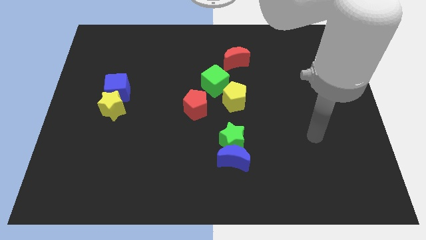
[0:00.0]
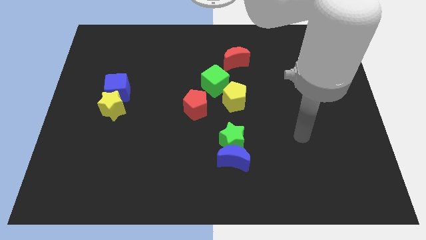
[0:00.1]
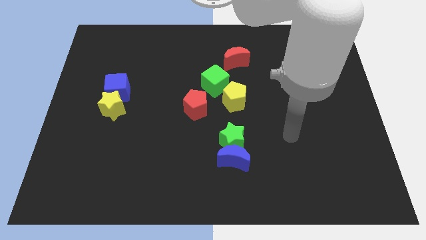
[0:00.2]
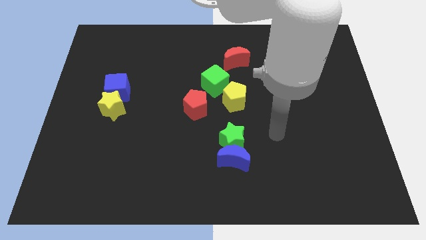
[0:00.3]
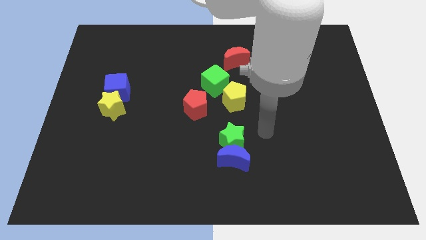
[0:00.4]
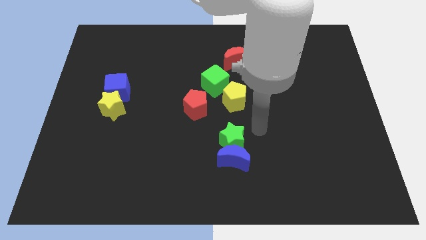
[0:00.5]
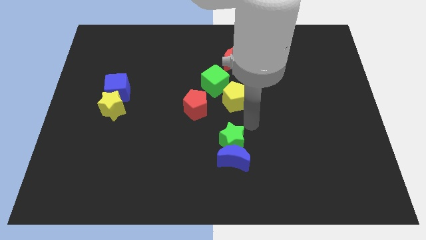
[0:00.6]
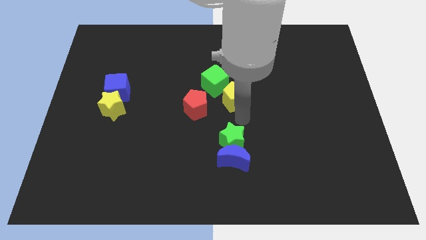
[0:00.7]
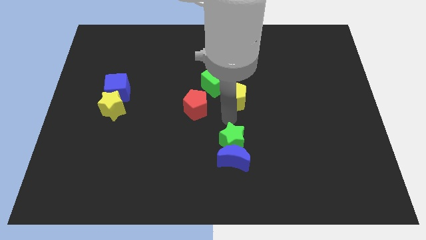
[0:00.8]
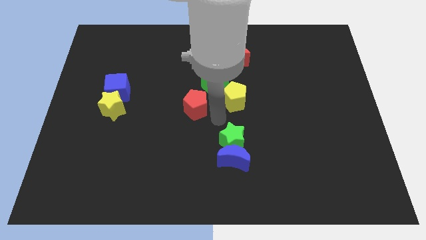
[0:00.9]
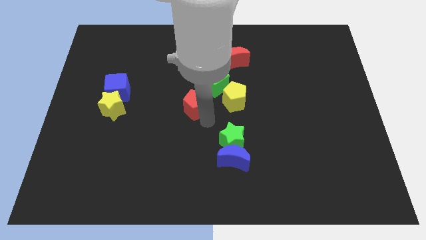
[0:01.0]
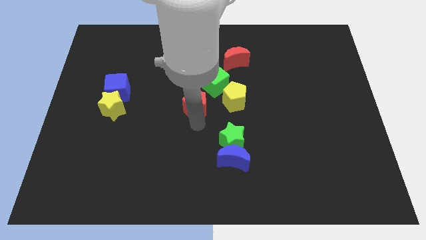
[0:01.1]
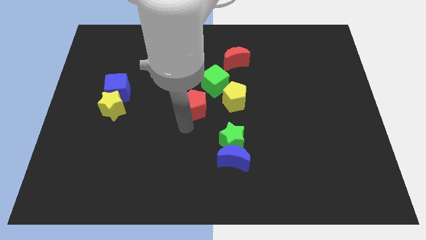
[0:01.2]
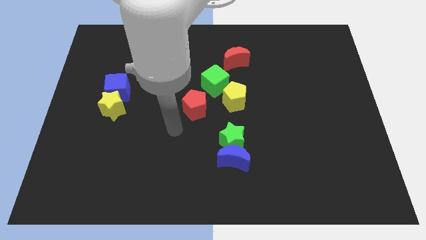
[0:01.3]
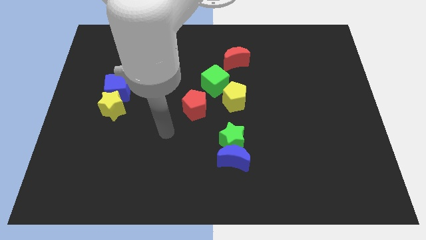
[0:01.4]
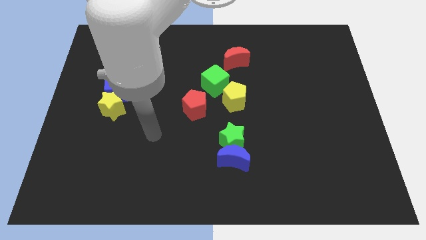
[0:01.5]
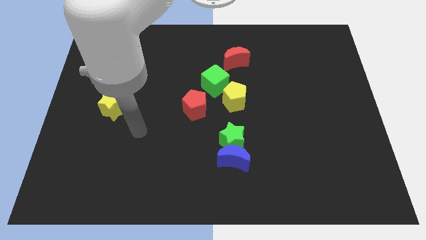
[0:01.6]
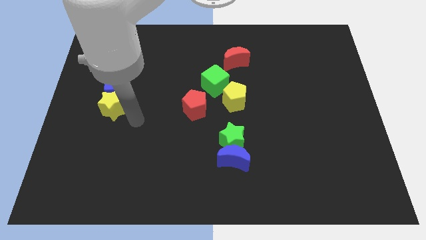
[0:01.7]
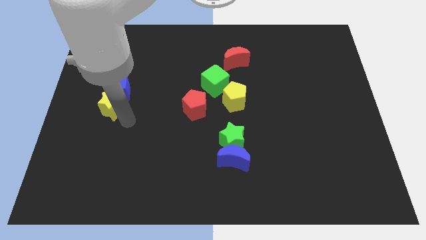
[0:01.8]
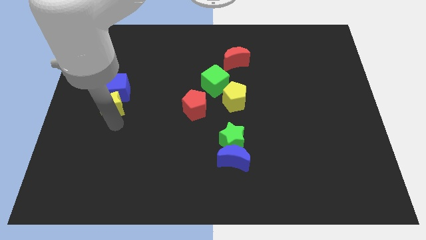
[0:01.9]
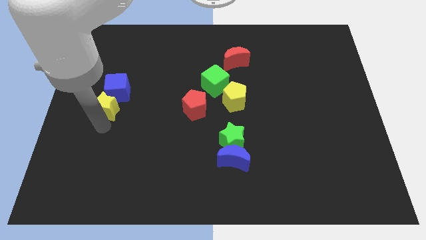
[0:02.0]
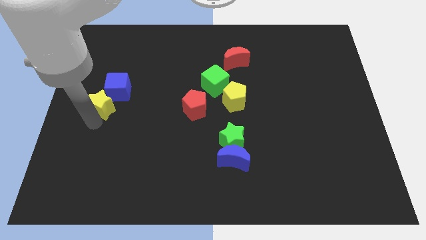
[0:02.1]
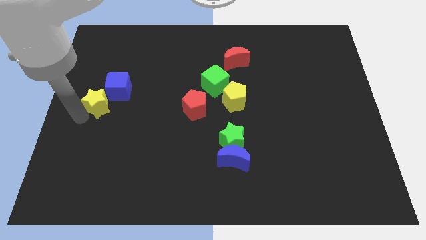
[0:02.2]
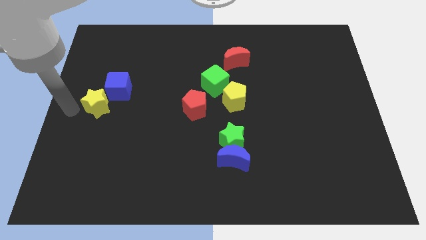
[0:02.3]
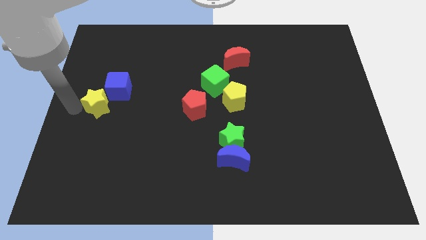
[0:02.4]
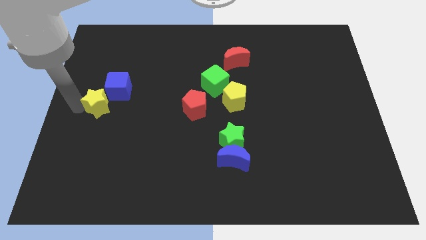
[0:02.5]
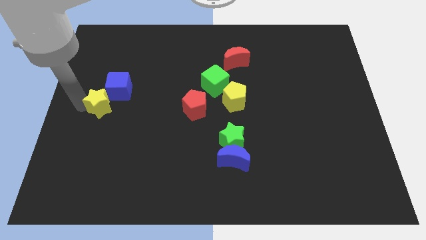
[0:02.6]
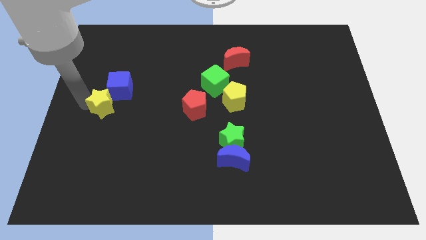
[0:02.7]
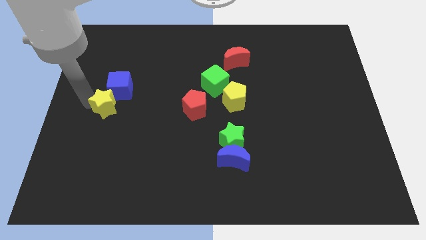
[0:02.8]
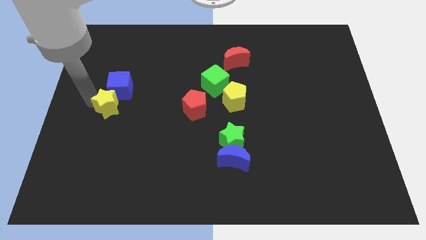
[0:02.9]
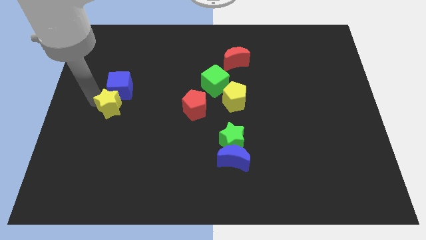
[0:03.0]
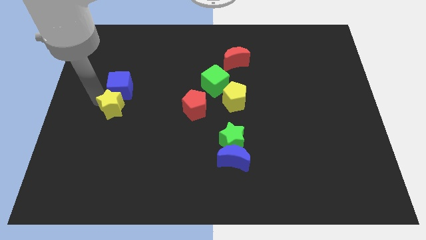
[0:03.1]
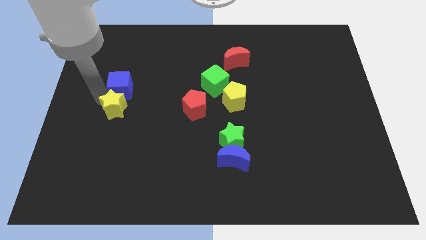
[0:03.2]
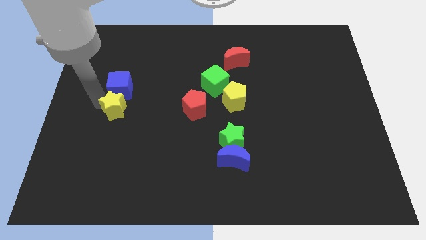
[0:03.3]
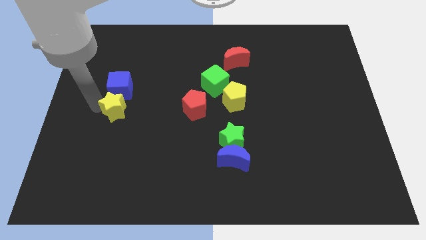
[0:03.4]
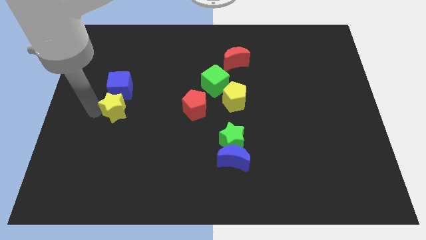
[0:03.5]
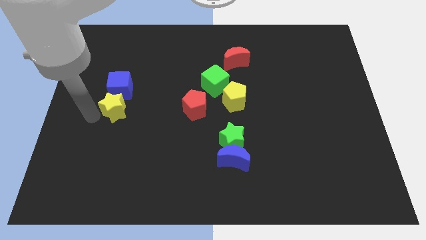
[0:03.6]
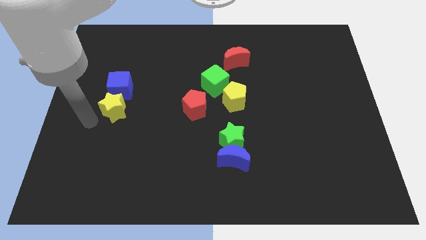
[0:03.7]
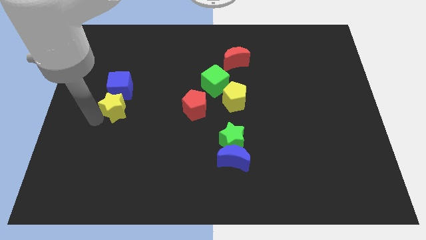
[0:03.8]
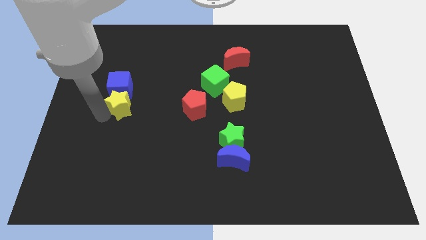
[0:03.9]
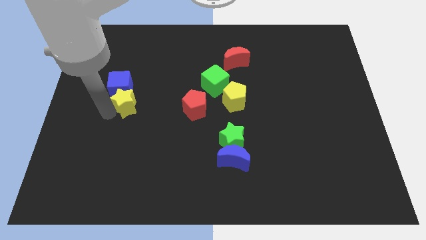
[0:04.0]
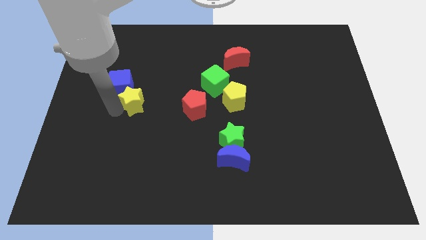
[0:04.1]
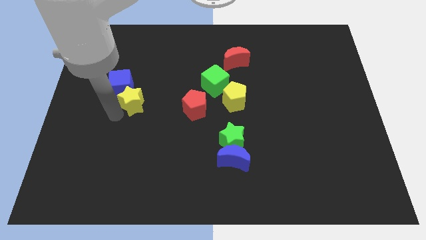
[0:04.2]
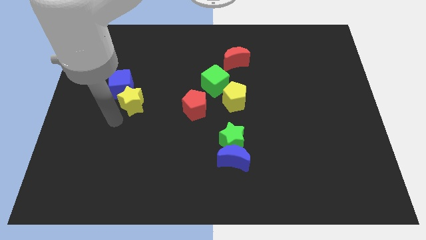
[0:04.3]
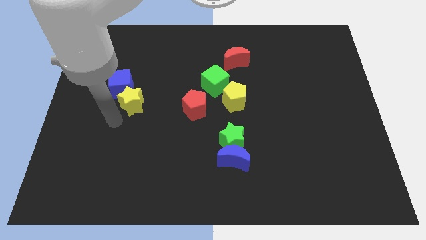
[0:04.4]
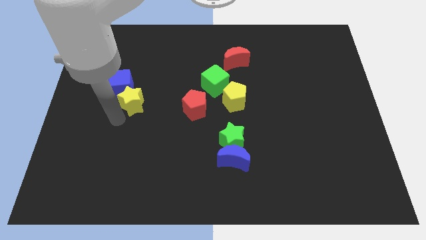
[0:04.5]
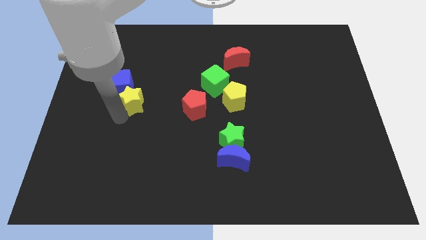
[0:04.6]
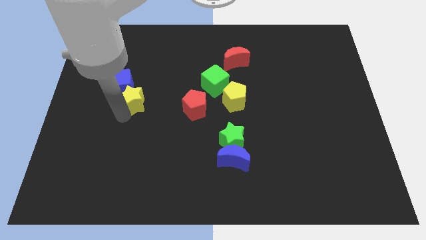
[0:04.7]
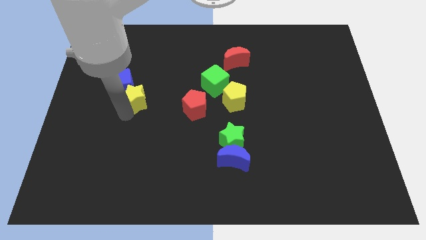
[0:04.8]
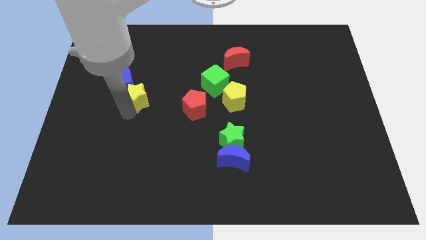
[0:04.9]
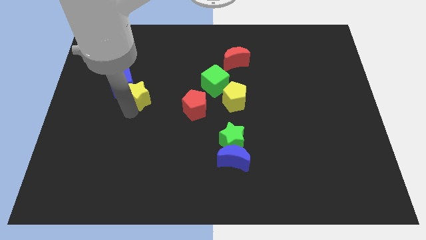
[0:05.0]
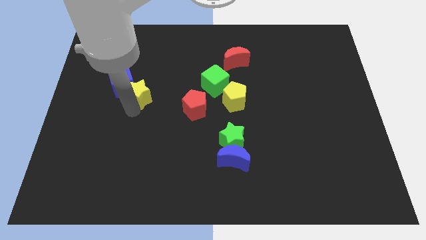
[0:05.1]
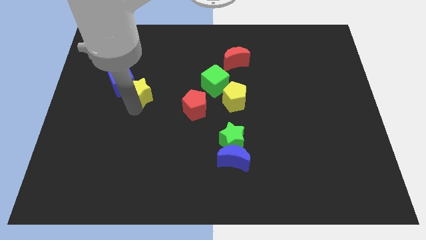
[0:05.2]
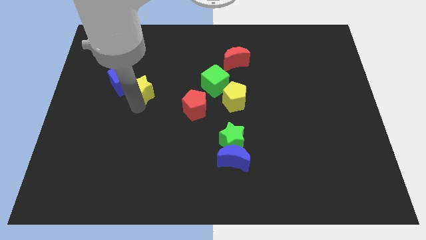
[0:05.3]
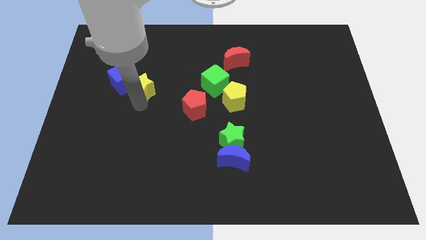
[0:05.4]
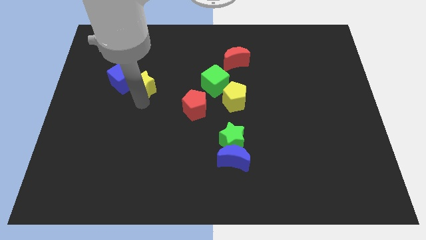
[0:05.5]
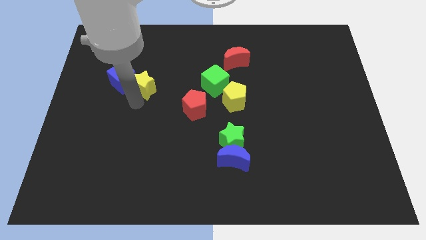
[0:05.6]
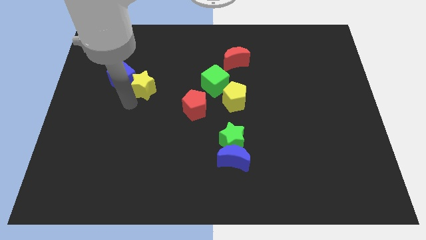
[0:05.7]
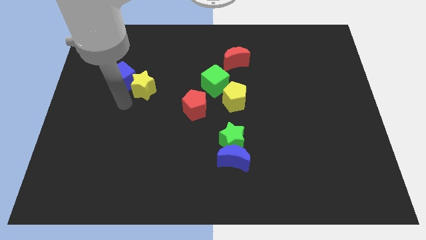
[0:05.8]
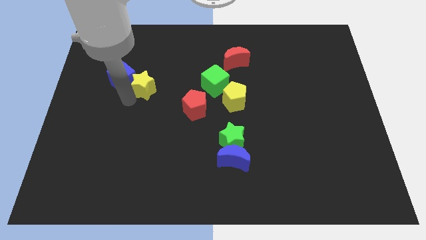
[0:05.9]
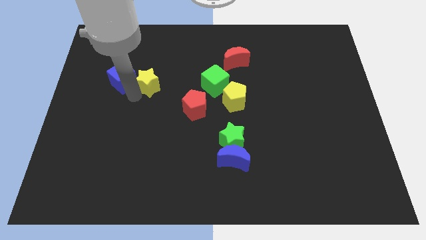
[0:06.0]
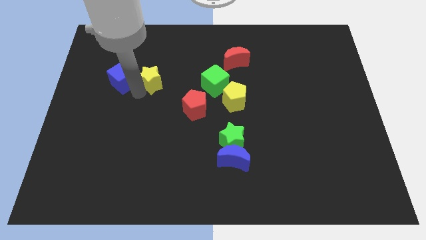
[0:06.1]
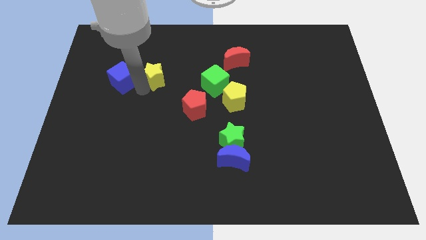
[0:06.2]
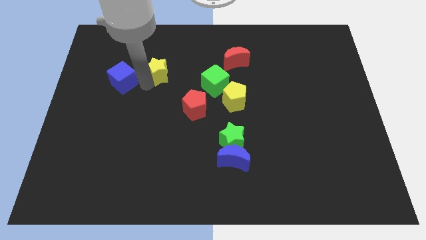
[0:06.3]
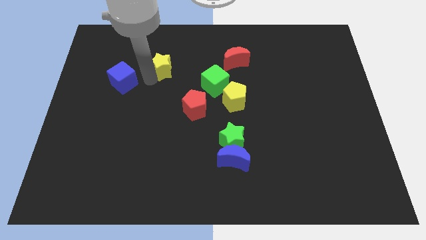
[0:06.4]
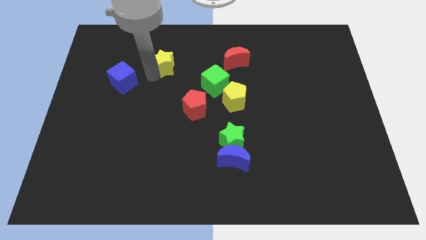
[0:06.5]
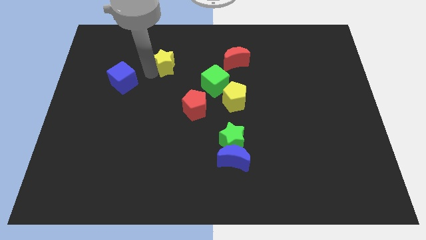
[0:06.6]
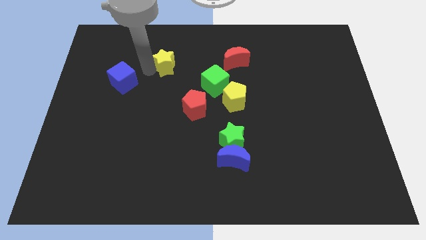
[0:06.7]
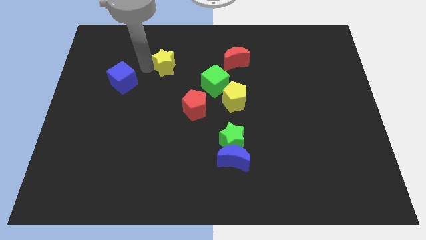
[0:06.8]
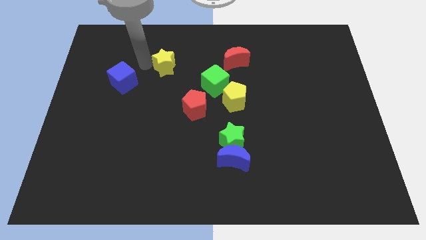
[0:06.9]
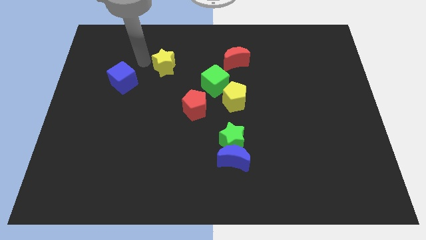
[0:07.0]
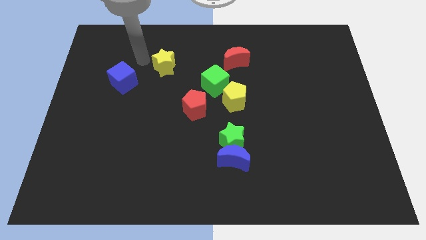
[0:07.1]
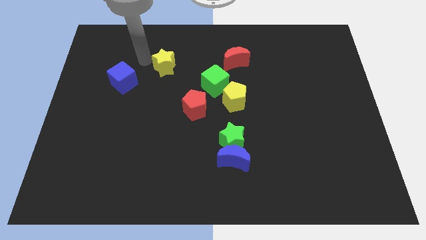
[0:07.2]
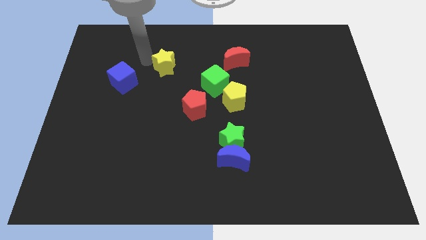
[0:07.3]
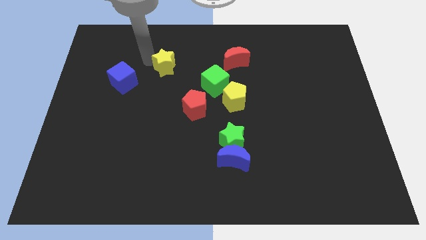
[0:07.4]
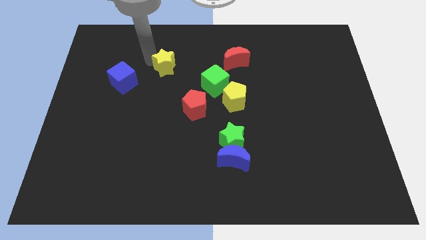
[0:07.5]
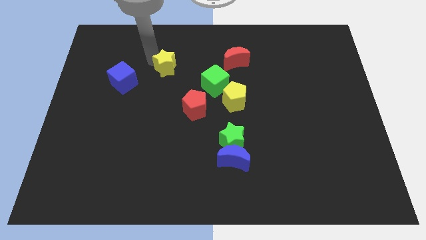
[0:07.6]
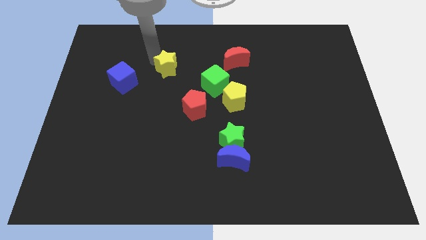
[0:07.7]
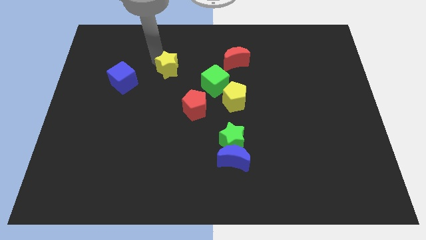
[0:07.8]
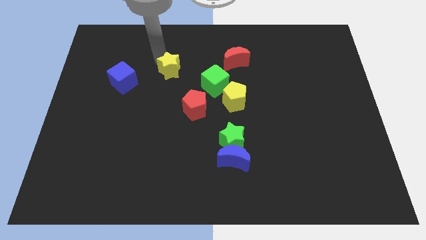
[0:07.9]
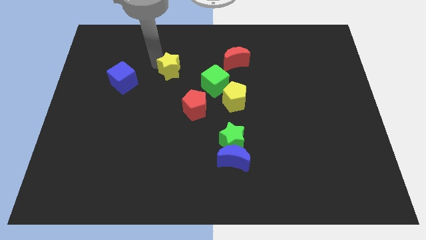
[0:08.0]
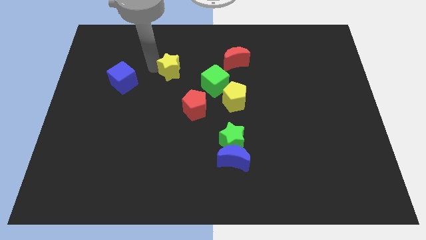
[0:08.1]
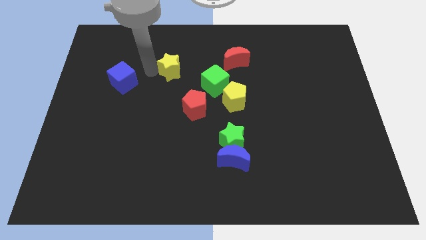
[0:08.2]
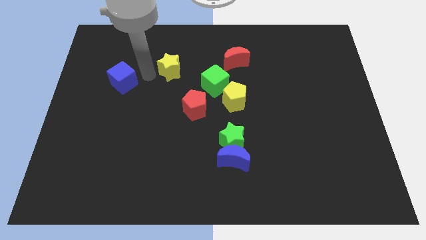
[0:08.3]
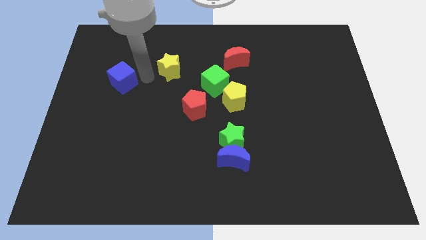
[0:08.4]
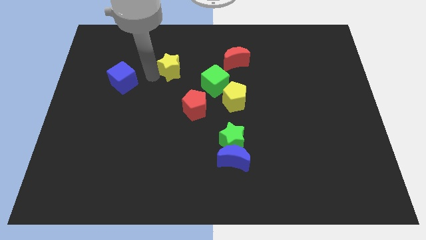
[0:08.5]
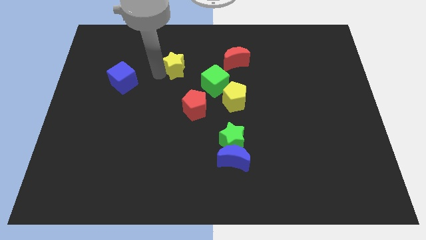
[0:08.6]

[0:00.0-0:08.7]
move the yellow star left of the red moon
